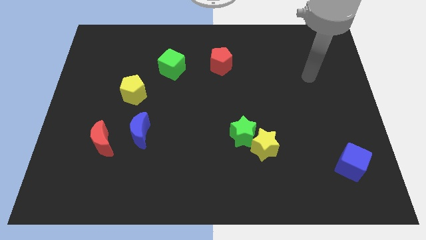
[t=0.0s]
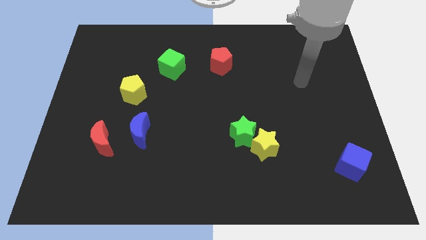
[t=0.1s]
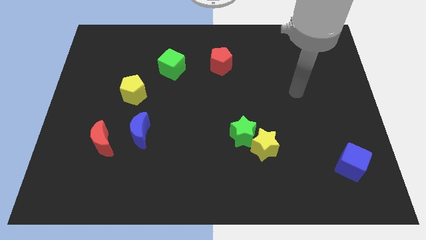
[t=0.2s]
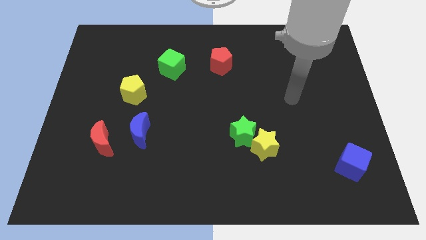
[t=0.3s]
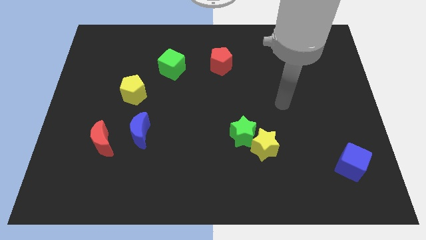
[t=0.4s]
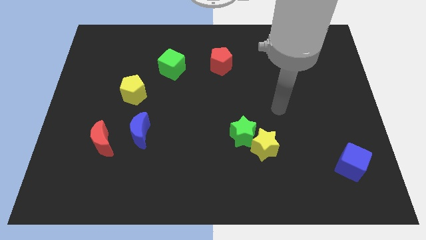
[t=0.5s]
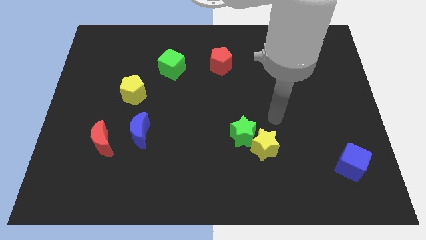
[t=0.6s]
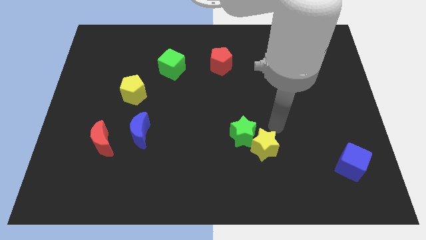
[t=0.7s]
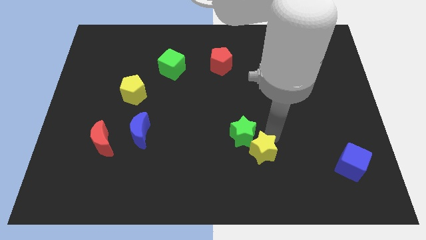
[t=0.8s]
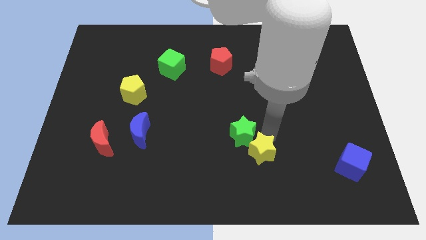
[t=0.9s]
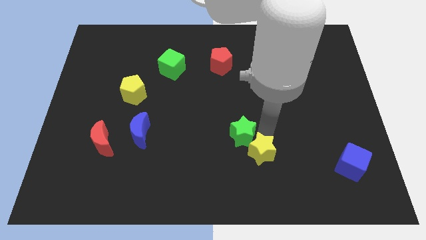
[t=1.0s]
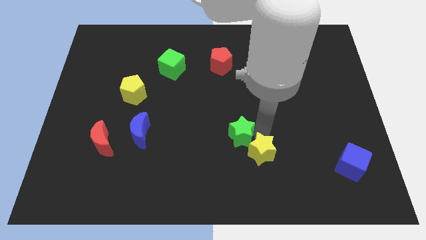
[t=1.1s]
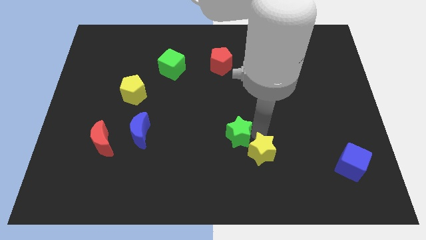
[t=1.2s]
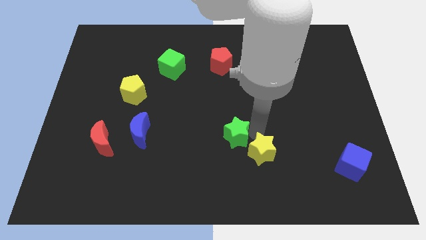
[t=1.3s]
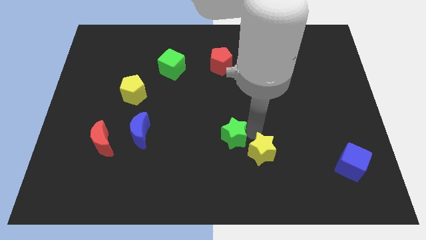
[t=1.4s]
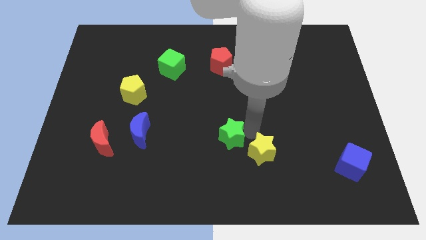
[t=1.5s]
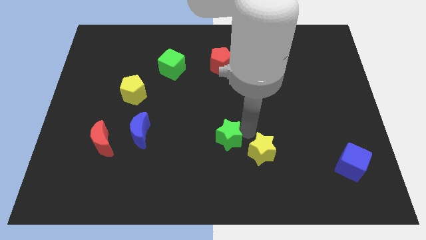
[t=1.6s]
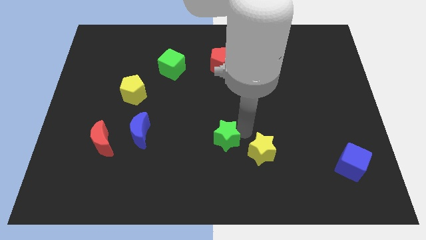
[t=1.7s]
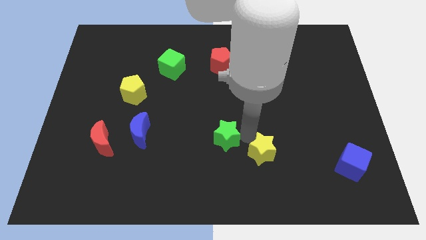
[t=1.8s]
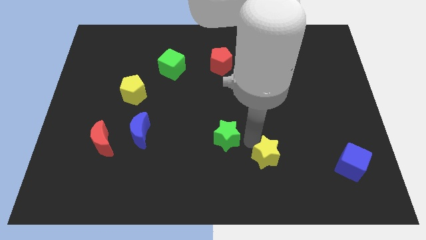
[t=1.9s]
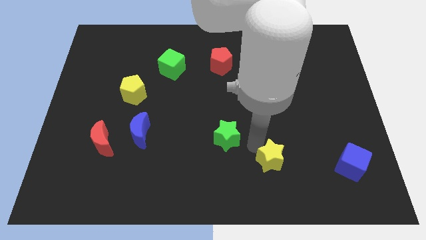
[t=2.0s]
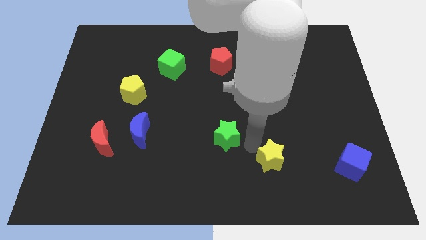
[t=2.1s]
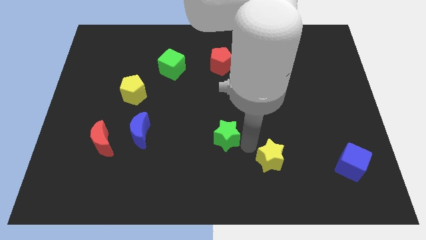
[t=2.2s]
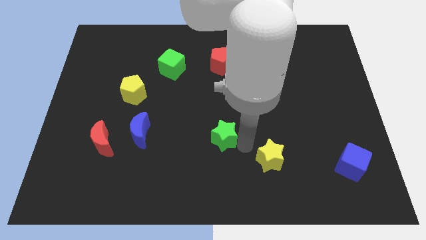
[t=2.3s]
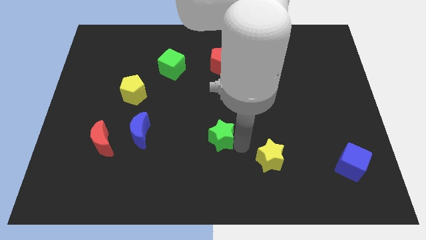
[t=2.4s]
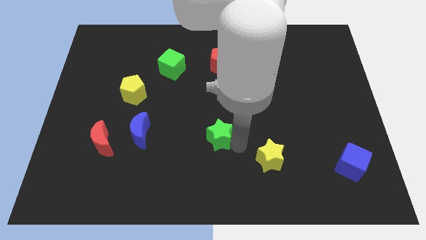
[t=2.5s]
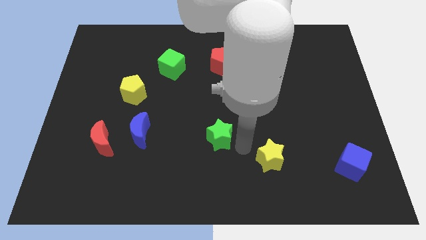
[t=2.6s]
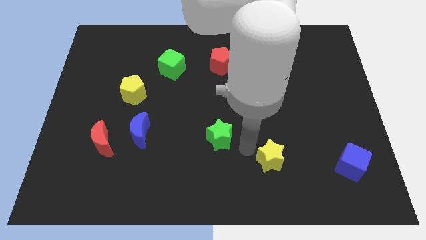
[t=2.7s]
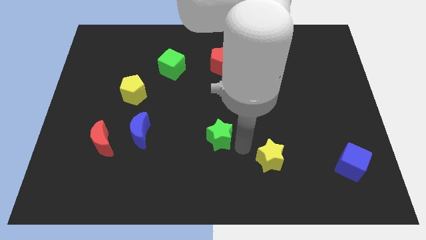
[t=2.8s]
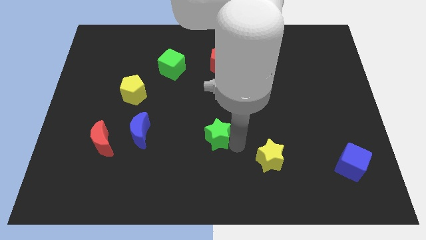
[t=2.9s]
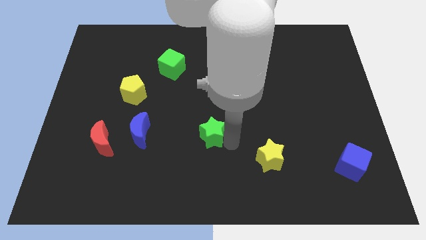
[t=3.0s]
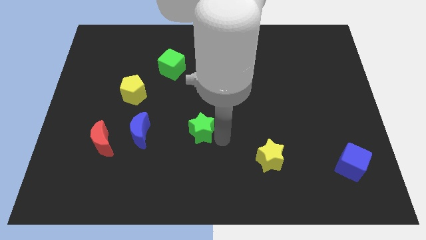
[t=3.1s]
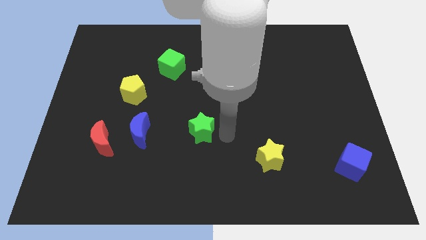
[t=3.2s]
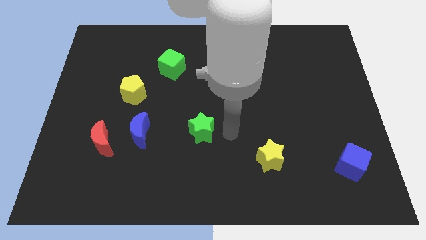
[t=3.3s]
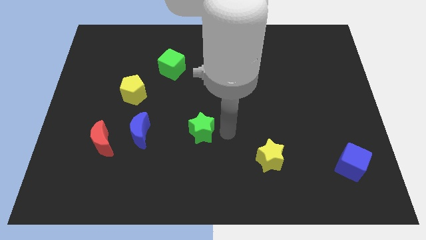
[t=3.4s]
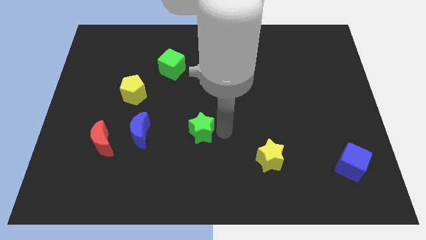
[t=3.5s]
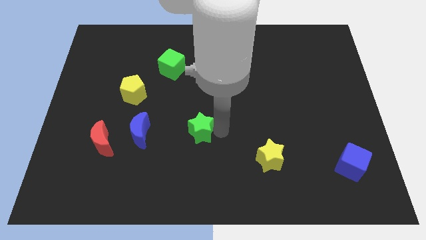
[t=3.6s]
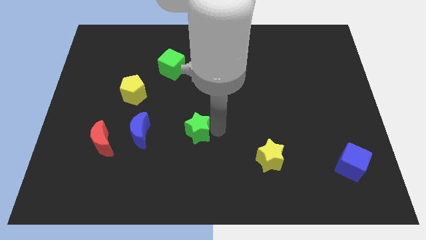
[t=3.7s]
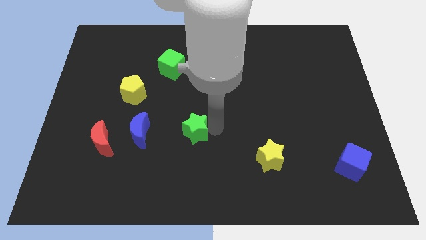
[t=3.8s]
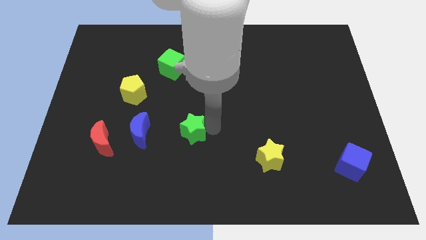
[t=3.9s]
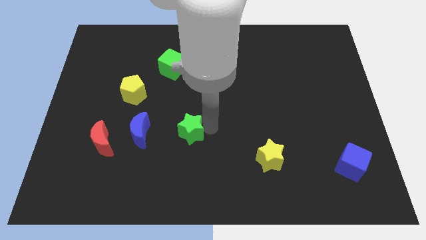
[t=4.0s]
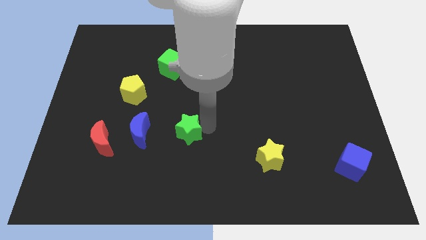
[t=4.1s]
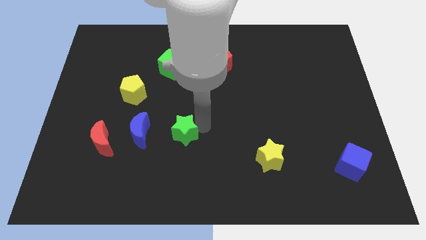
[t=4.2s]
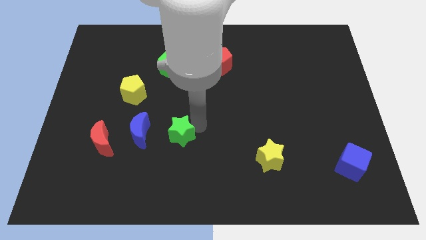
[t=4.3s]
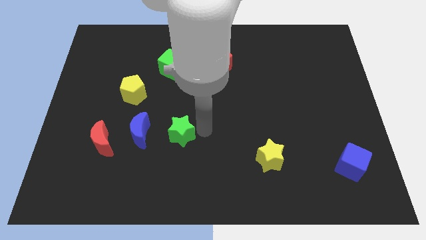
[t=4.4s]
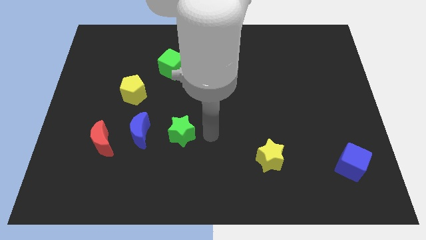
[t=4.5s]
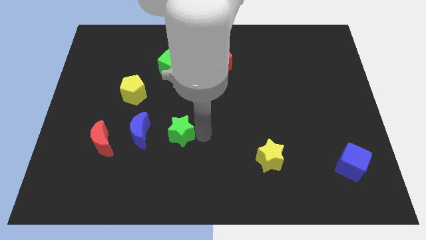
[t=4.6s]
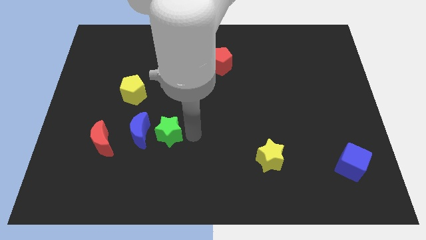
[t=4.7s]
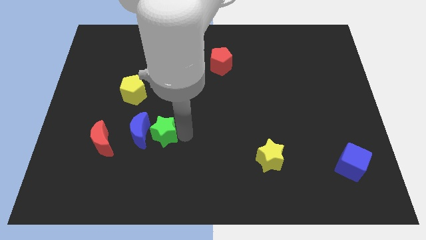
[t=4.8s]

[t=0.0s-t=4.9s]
slide the green star close to the blue moon

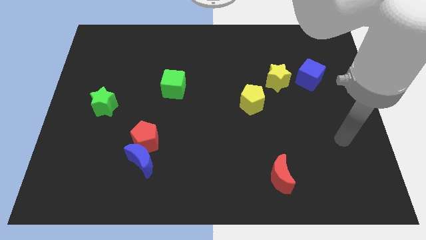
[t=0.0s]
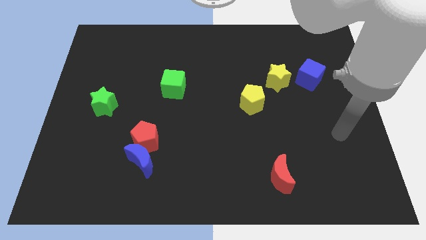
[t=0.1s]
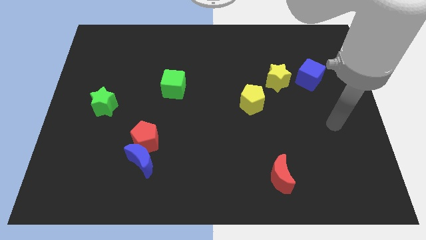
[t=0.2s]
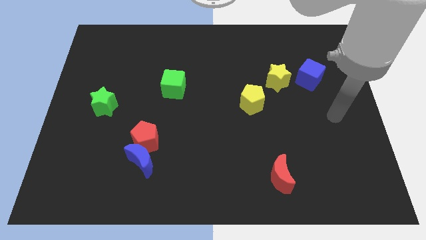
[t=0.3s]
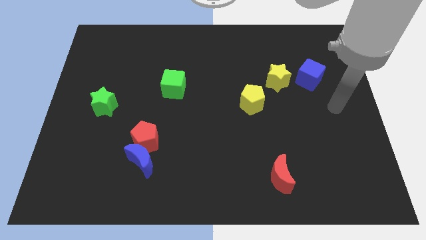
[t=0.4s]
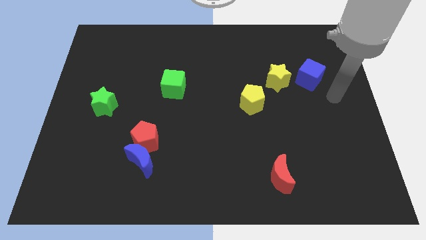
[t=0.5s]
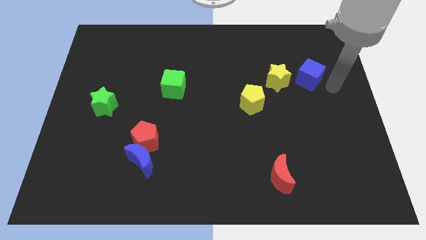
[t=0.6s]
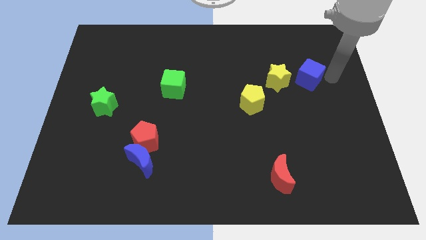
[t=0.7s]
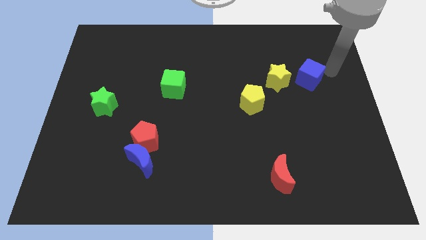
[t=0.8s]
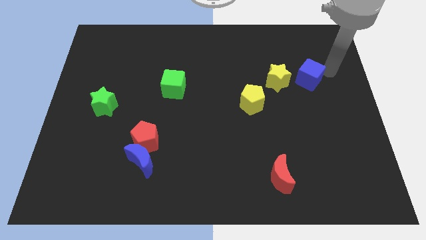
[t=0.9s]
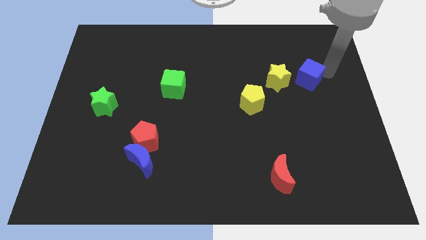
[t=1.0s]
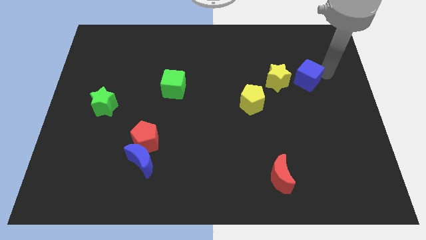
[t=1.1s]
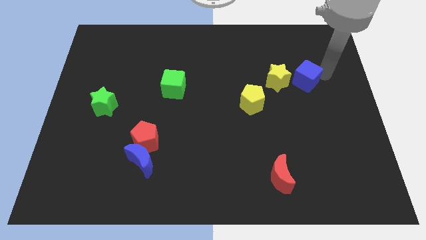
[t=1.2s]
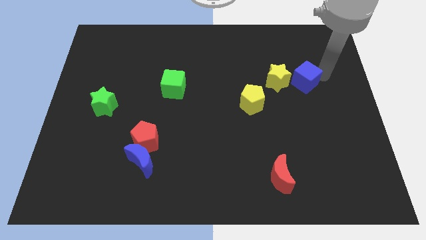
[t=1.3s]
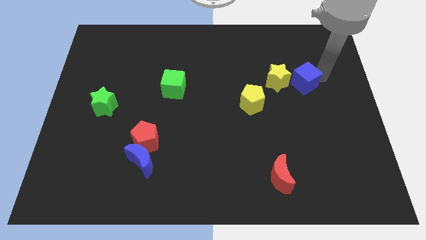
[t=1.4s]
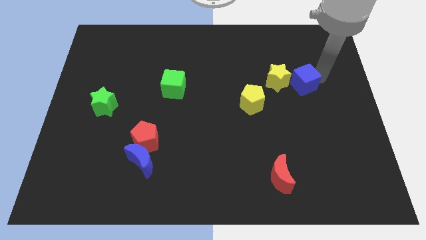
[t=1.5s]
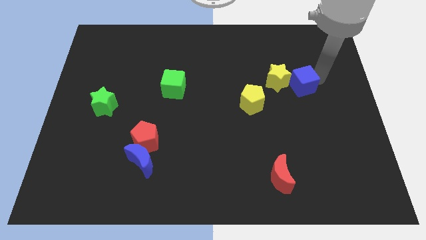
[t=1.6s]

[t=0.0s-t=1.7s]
slide the blue cube close to the yellow star
